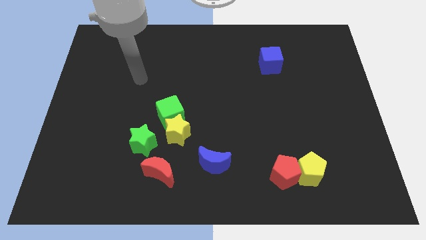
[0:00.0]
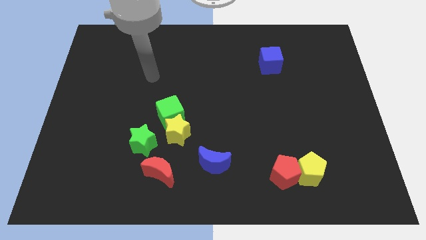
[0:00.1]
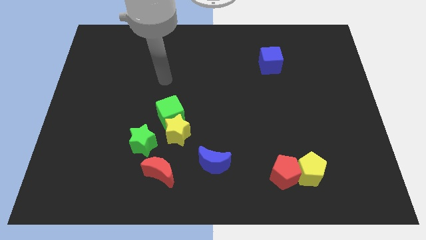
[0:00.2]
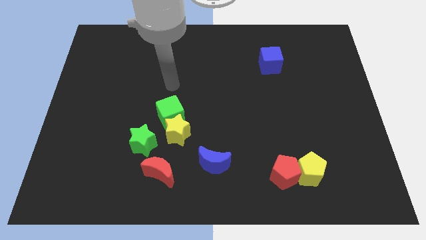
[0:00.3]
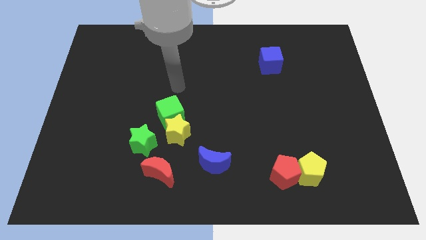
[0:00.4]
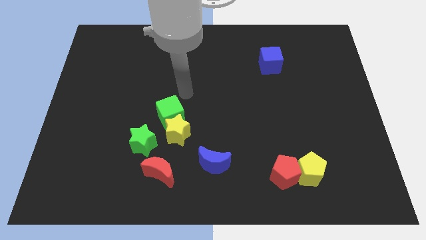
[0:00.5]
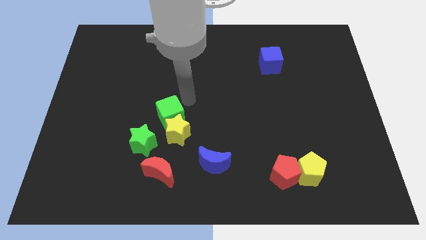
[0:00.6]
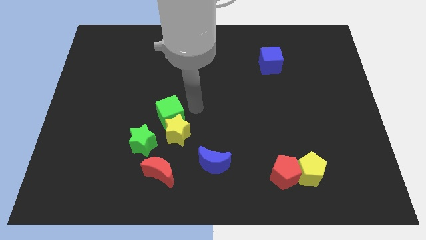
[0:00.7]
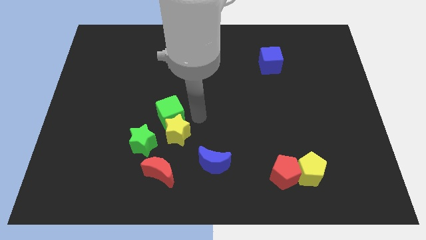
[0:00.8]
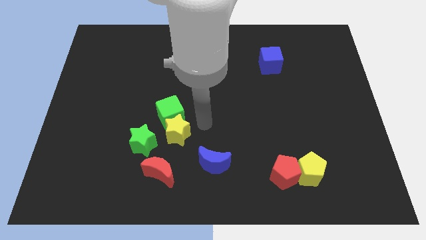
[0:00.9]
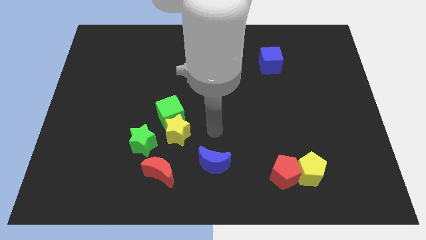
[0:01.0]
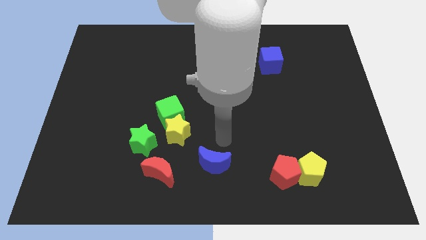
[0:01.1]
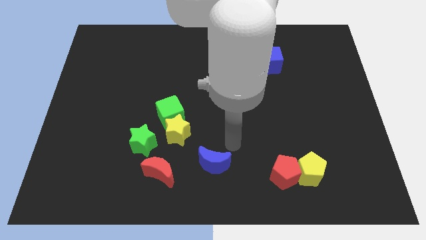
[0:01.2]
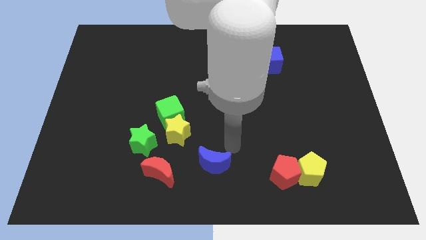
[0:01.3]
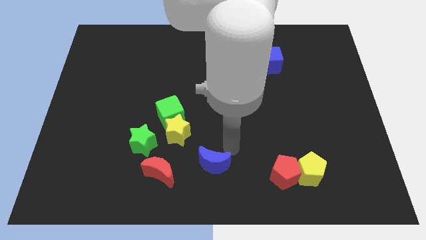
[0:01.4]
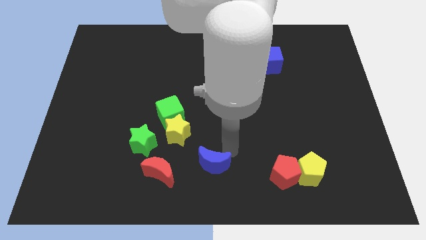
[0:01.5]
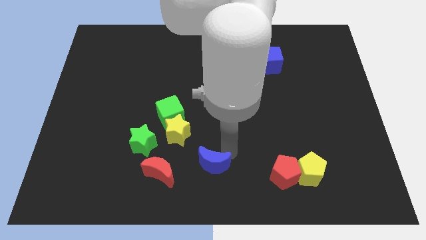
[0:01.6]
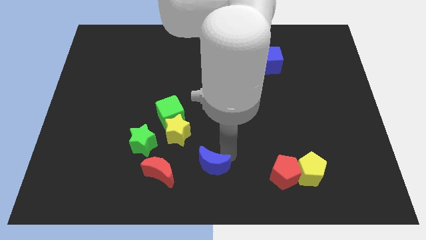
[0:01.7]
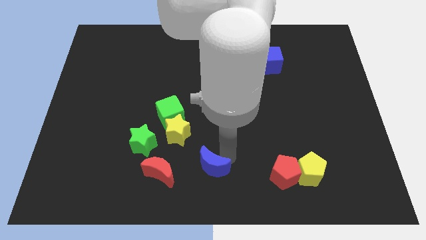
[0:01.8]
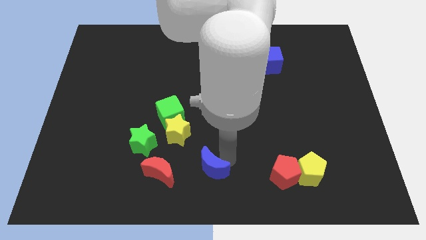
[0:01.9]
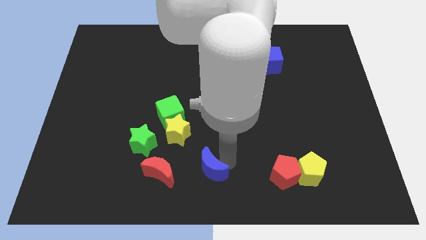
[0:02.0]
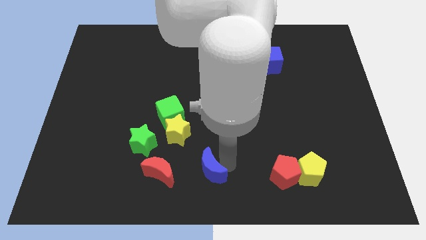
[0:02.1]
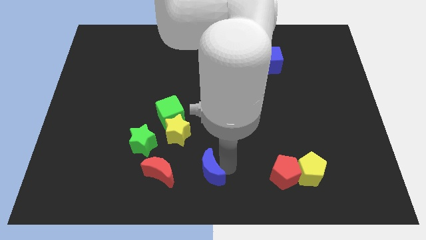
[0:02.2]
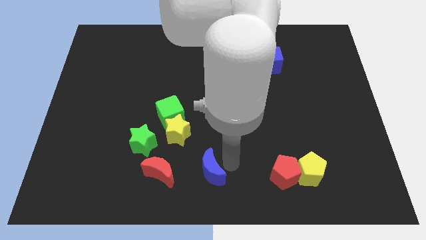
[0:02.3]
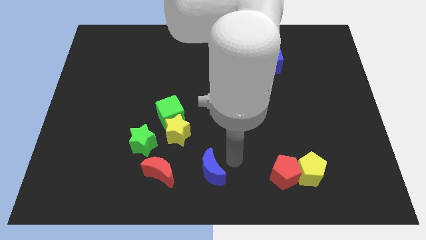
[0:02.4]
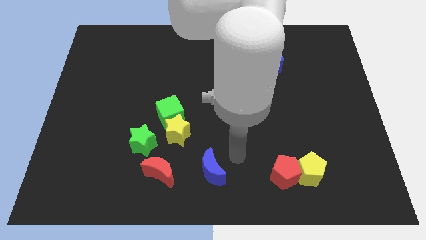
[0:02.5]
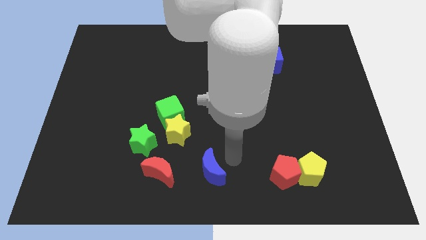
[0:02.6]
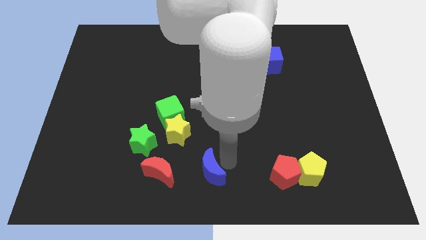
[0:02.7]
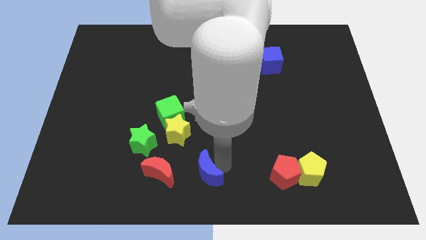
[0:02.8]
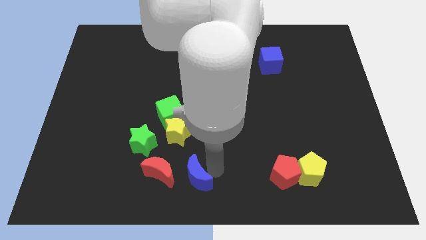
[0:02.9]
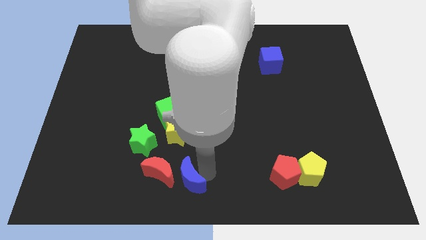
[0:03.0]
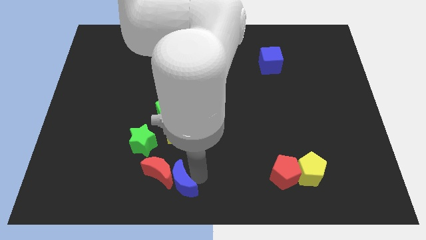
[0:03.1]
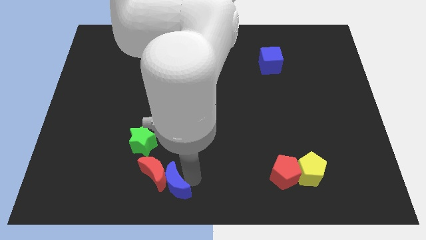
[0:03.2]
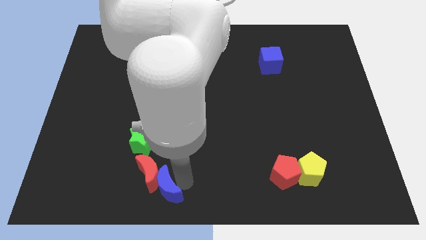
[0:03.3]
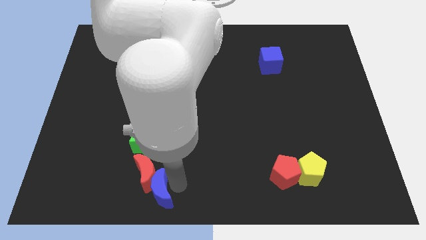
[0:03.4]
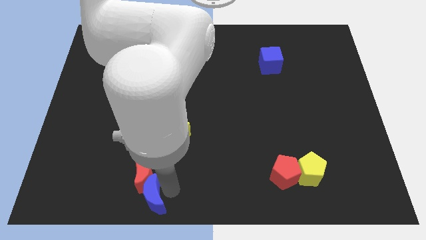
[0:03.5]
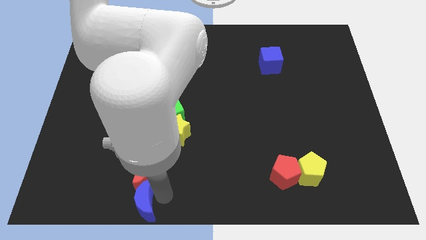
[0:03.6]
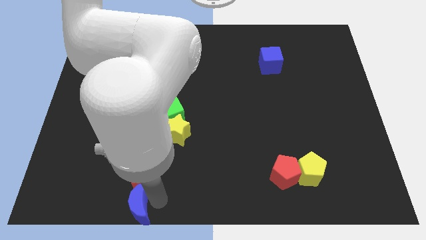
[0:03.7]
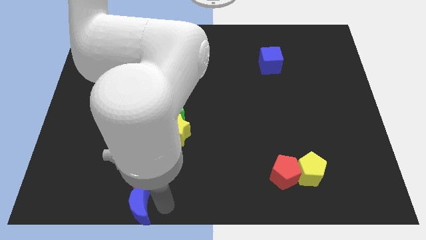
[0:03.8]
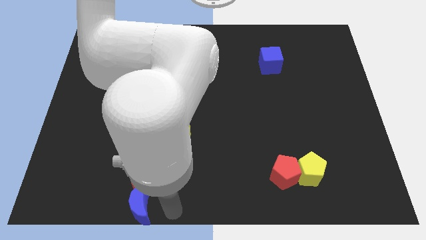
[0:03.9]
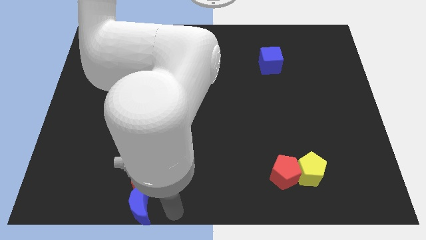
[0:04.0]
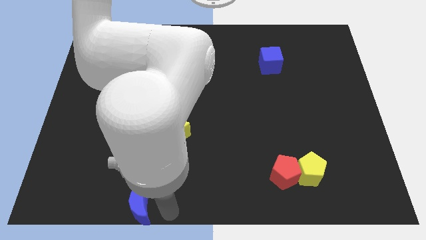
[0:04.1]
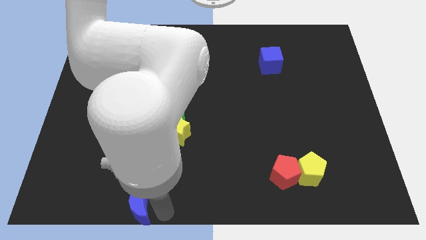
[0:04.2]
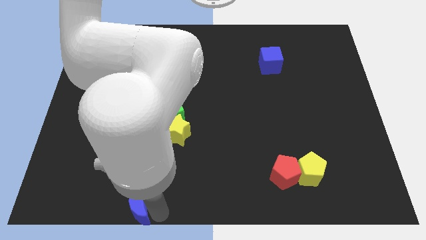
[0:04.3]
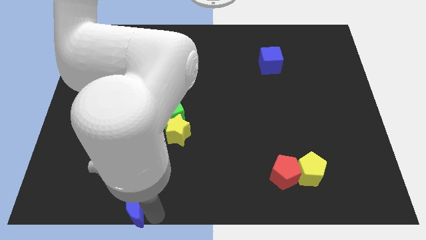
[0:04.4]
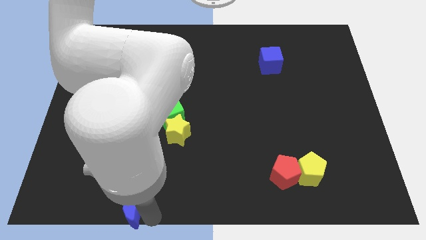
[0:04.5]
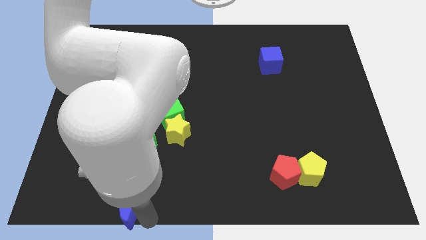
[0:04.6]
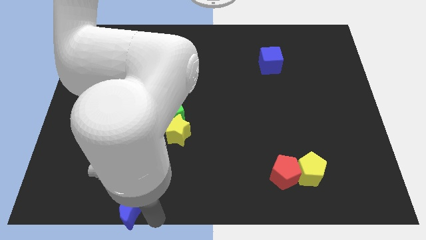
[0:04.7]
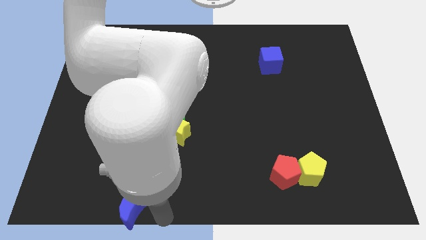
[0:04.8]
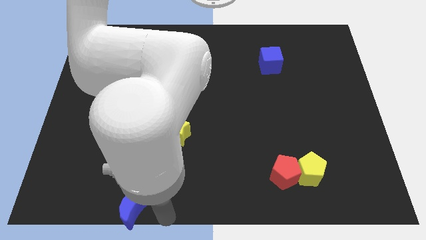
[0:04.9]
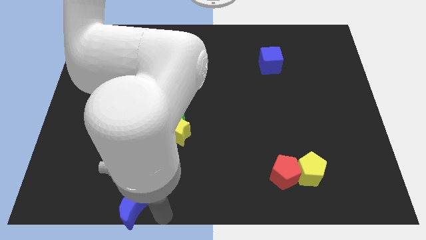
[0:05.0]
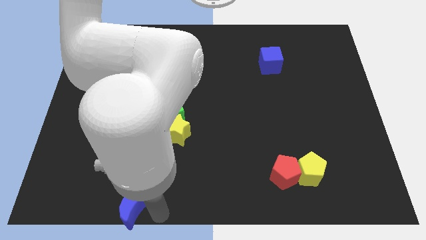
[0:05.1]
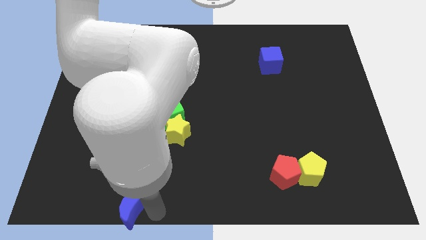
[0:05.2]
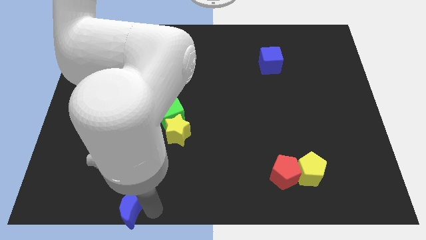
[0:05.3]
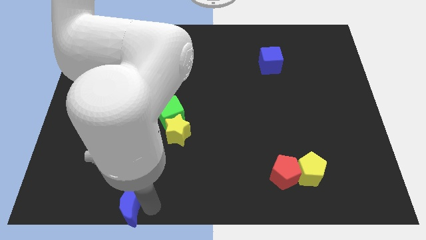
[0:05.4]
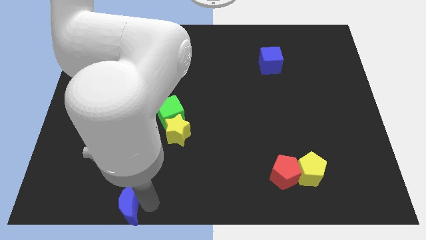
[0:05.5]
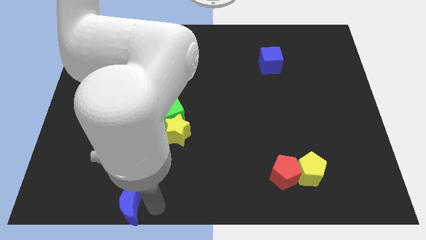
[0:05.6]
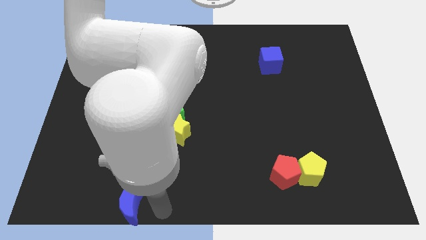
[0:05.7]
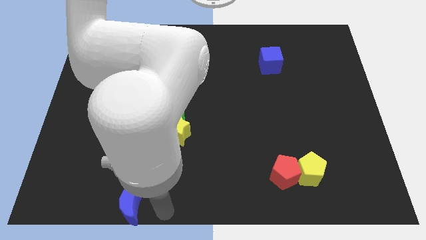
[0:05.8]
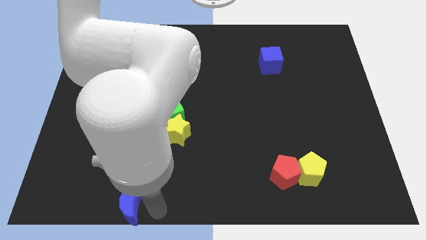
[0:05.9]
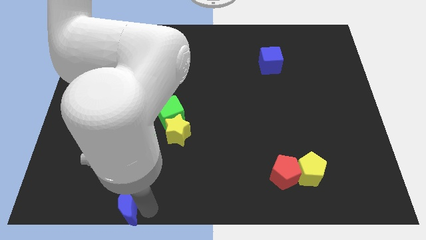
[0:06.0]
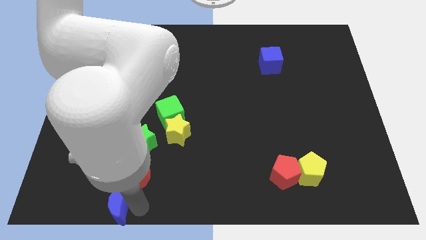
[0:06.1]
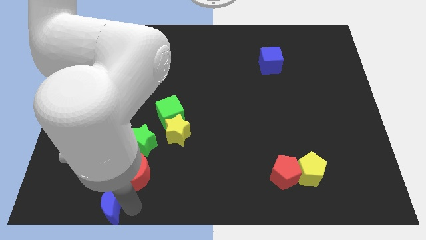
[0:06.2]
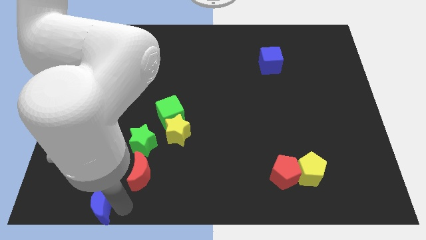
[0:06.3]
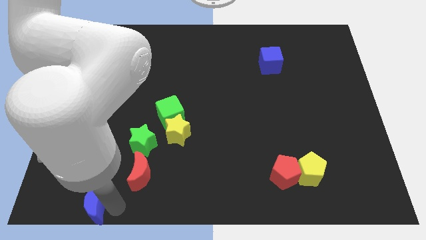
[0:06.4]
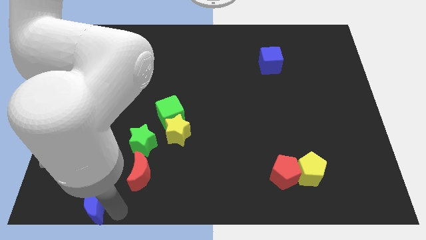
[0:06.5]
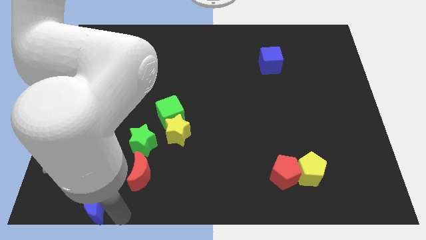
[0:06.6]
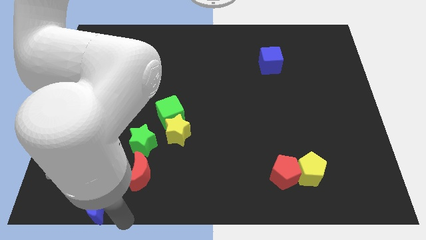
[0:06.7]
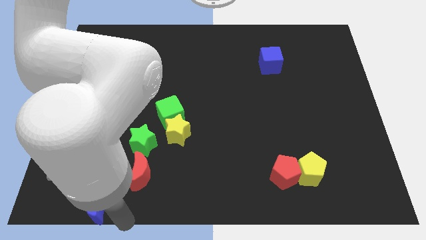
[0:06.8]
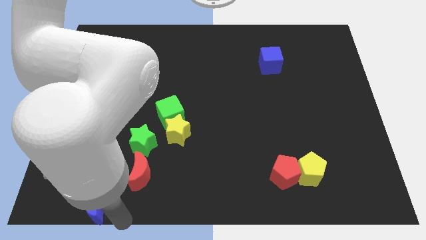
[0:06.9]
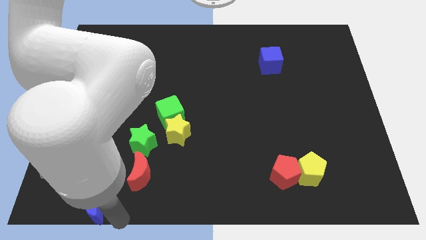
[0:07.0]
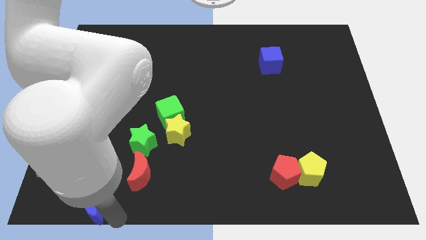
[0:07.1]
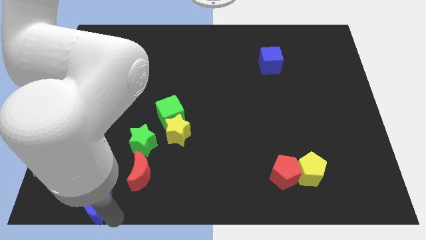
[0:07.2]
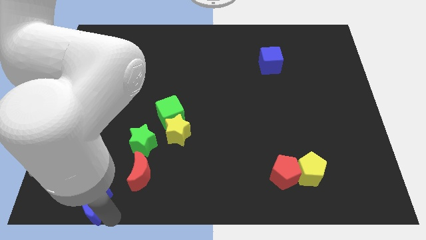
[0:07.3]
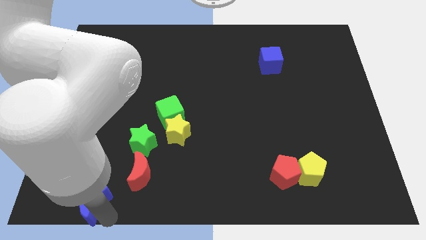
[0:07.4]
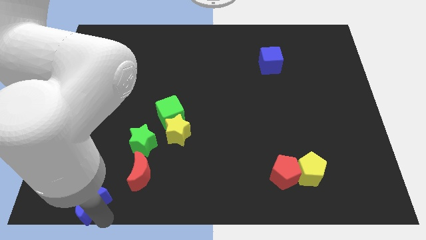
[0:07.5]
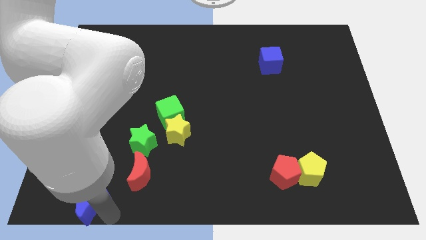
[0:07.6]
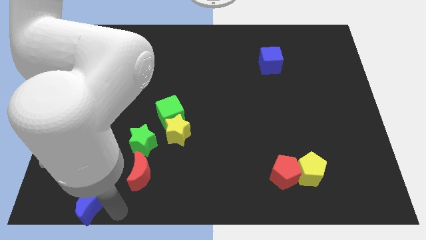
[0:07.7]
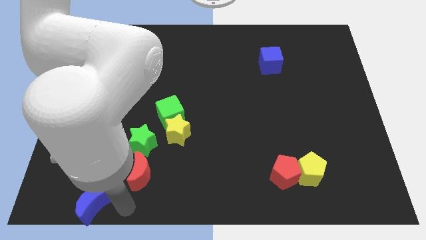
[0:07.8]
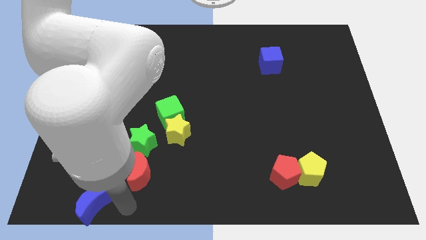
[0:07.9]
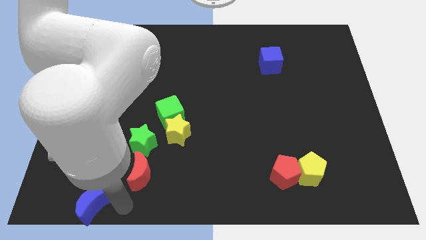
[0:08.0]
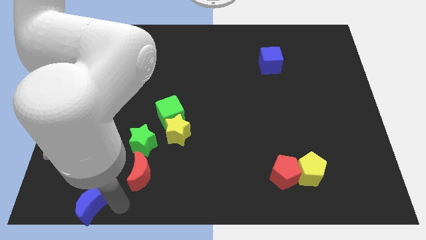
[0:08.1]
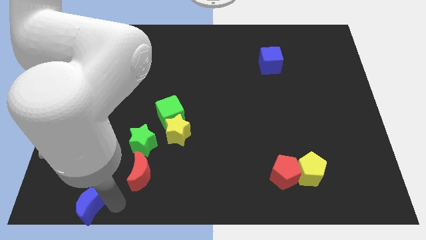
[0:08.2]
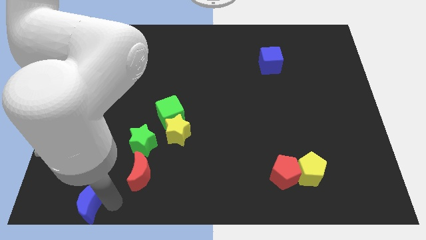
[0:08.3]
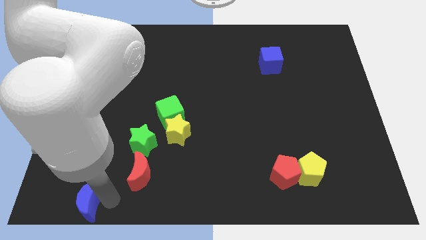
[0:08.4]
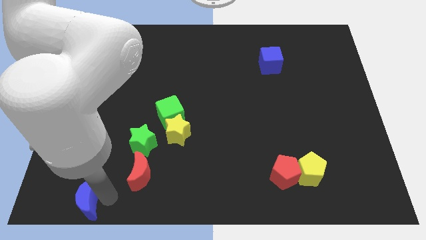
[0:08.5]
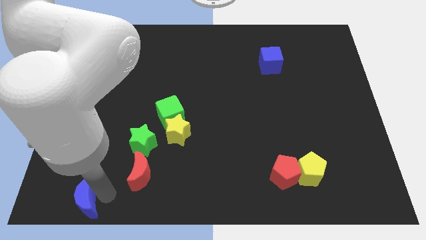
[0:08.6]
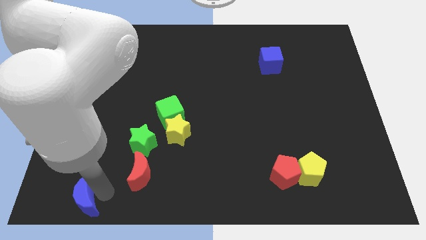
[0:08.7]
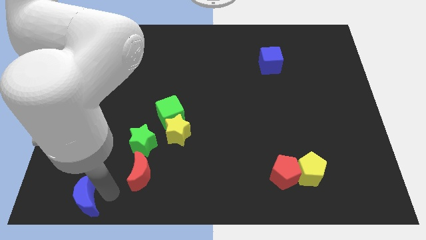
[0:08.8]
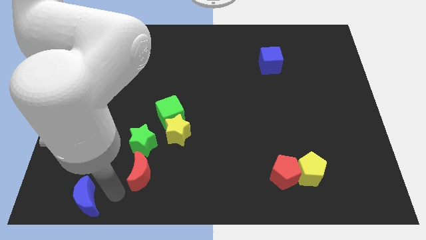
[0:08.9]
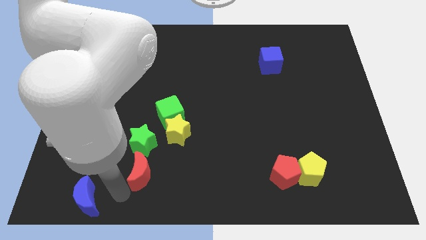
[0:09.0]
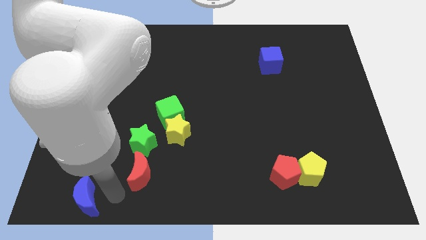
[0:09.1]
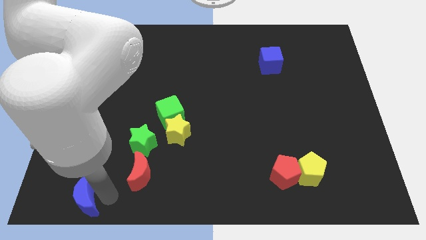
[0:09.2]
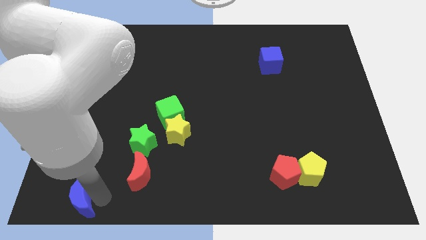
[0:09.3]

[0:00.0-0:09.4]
put the blue moon to the bottom left of the board
